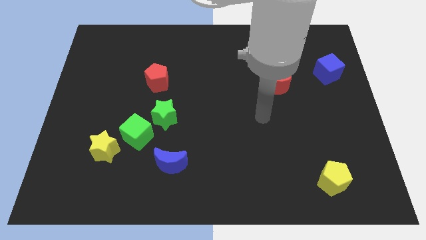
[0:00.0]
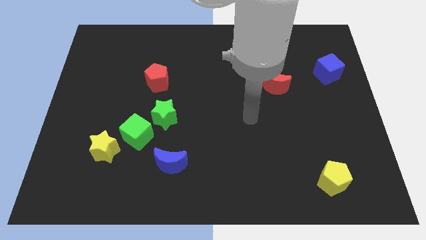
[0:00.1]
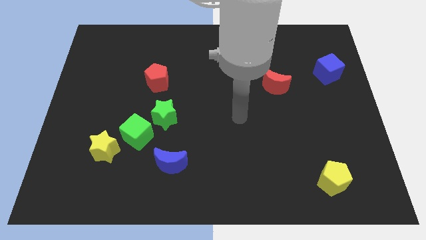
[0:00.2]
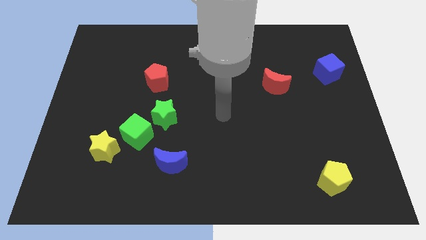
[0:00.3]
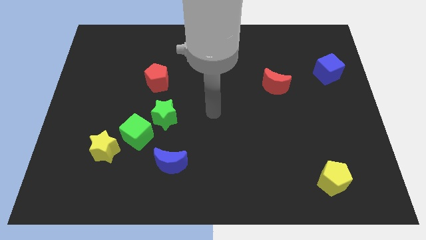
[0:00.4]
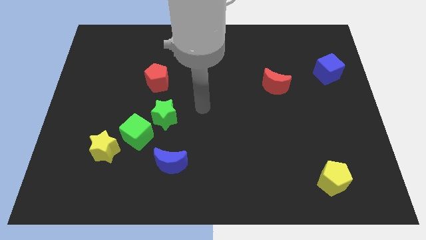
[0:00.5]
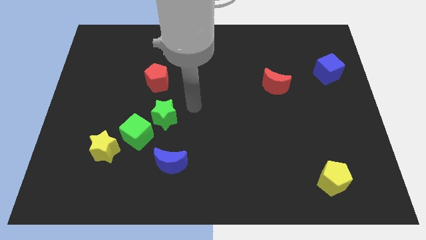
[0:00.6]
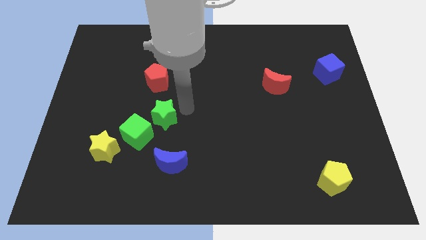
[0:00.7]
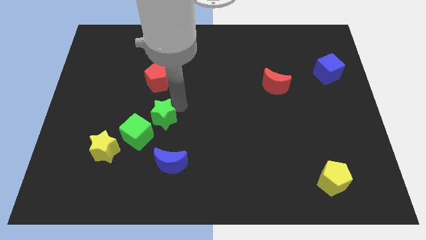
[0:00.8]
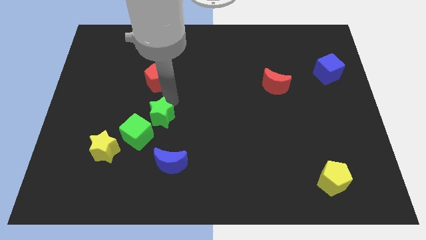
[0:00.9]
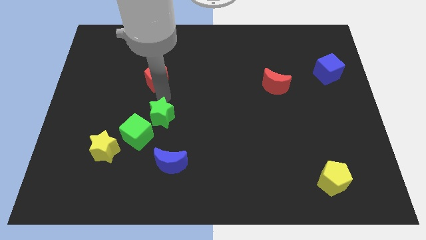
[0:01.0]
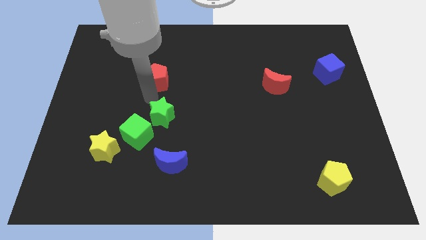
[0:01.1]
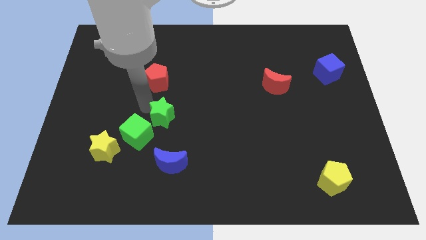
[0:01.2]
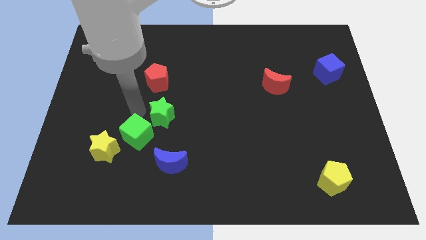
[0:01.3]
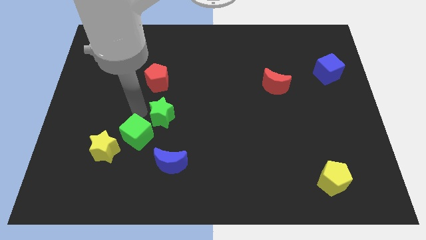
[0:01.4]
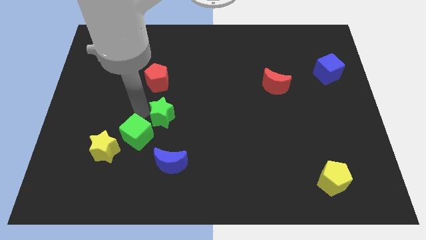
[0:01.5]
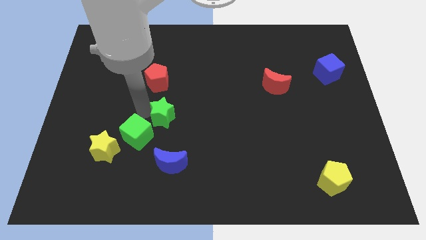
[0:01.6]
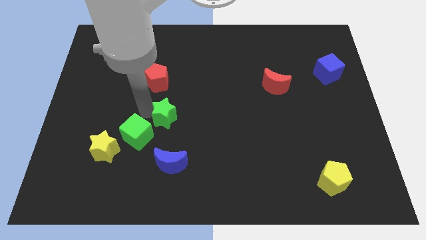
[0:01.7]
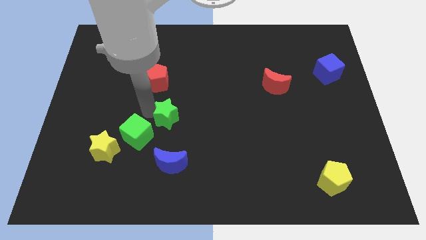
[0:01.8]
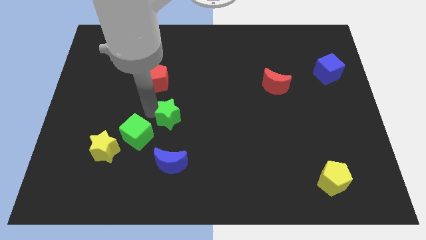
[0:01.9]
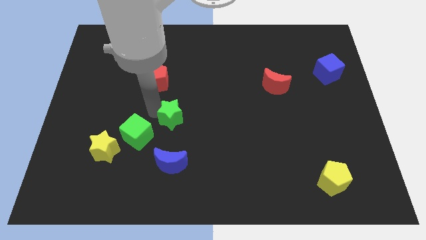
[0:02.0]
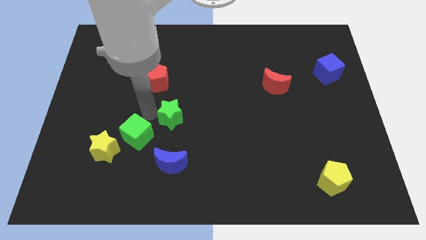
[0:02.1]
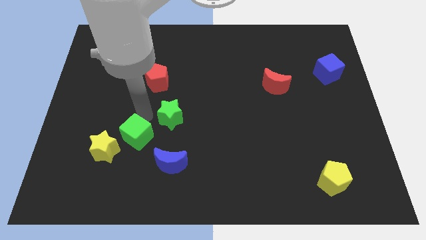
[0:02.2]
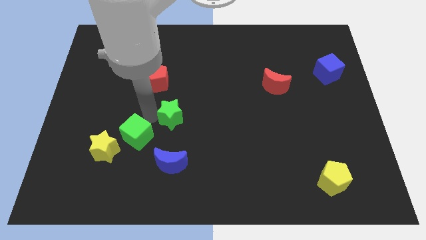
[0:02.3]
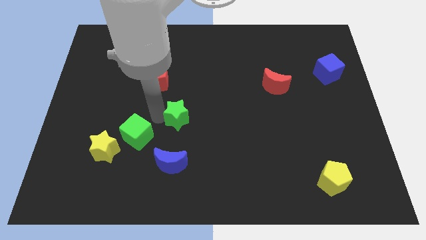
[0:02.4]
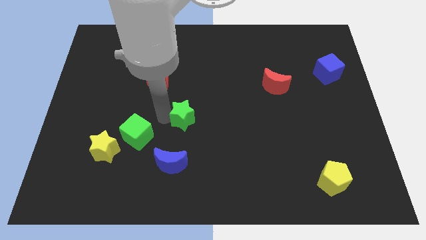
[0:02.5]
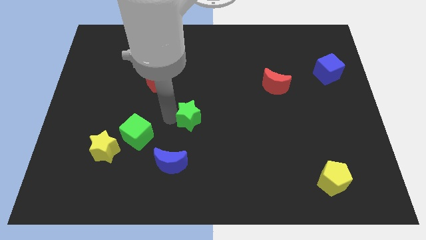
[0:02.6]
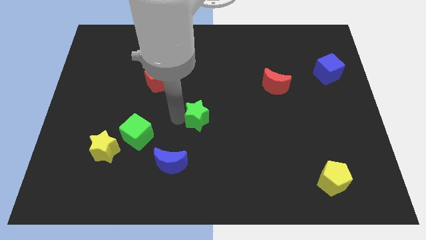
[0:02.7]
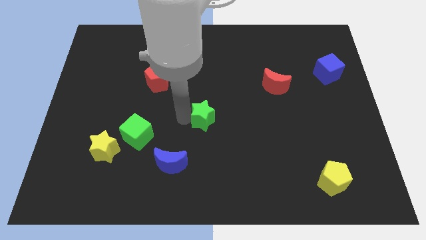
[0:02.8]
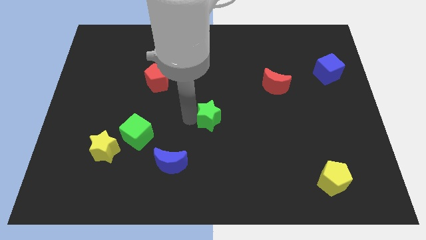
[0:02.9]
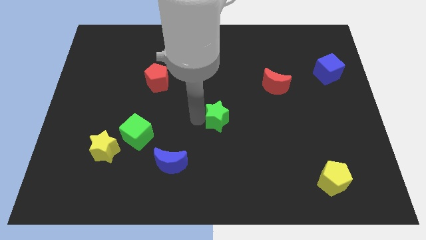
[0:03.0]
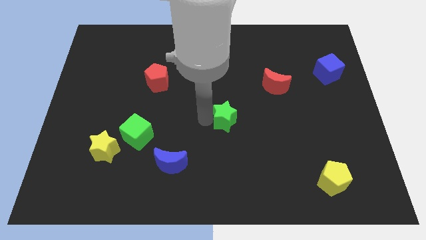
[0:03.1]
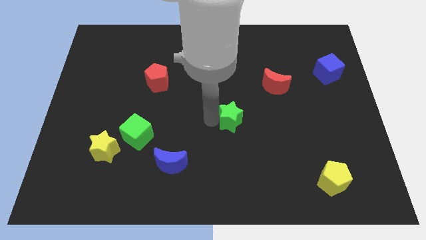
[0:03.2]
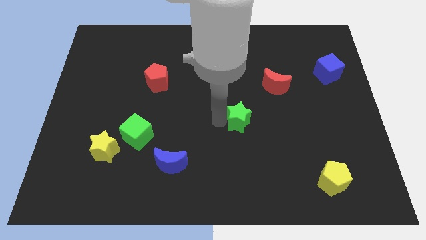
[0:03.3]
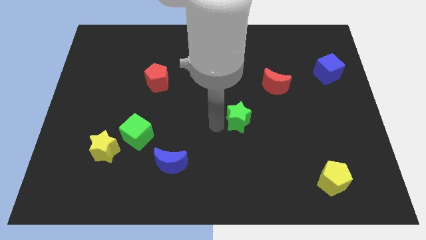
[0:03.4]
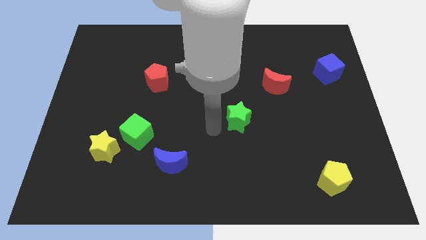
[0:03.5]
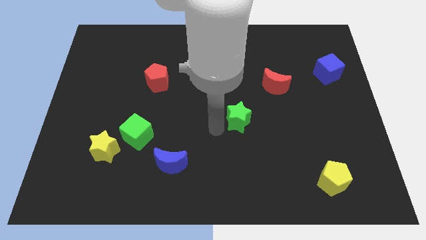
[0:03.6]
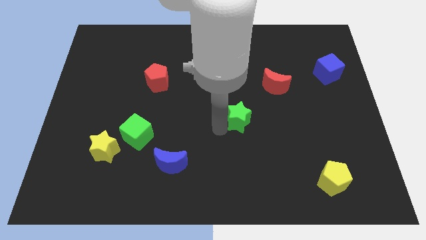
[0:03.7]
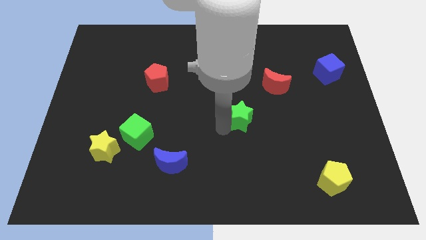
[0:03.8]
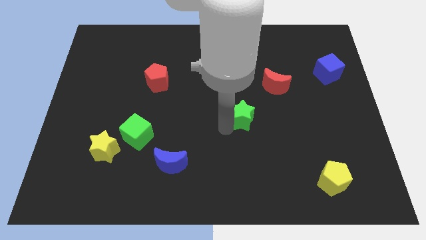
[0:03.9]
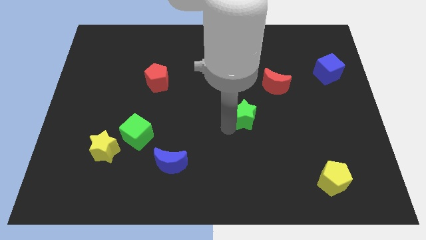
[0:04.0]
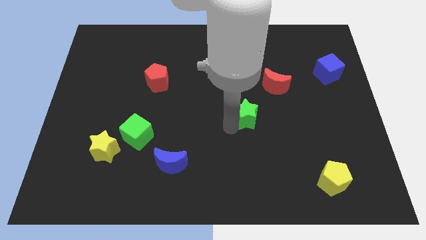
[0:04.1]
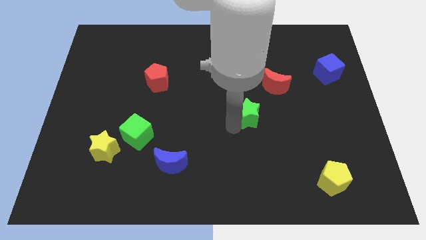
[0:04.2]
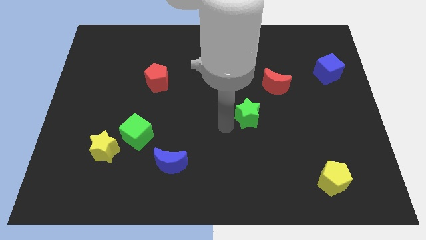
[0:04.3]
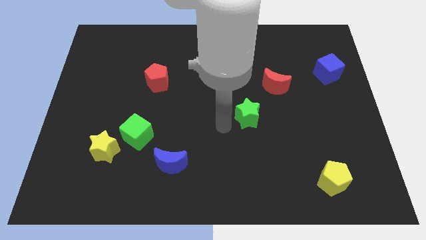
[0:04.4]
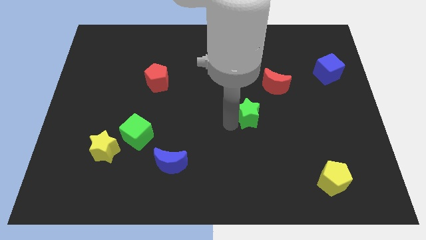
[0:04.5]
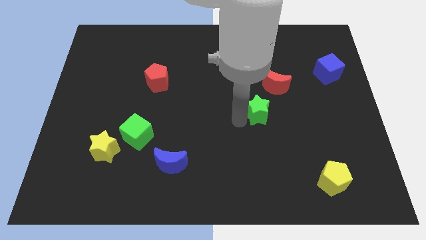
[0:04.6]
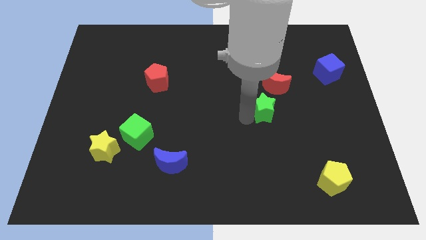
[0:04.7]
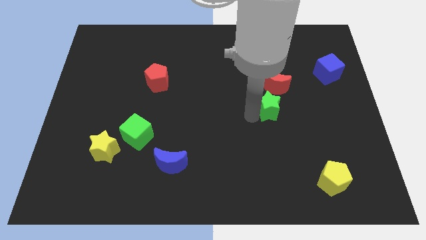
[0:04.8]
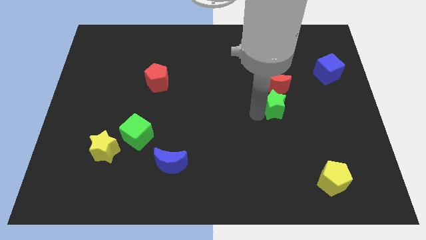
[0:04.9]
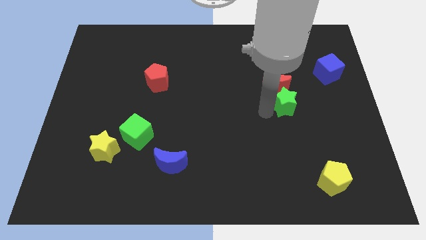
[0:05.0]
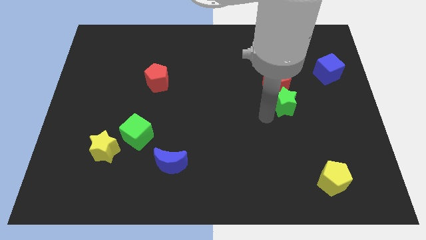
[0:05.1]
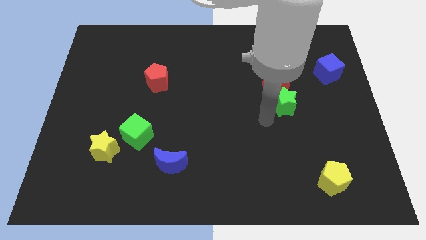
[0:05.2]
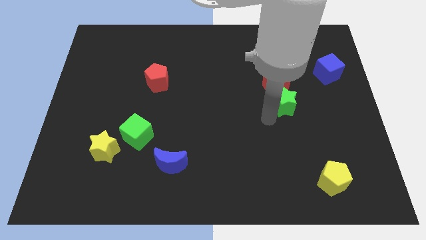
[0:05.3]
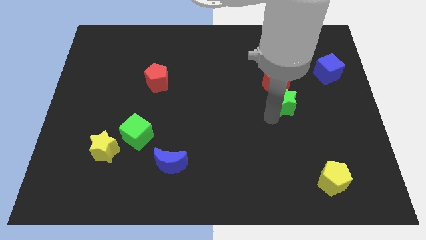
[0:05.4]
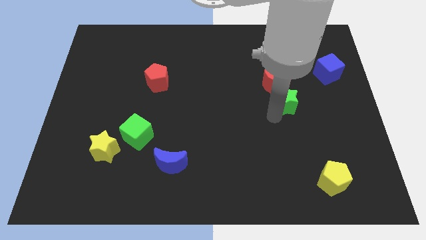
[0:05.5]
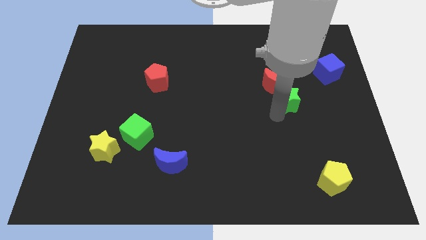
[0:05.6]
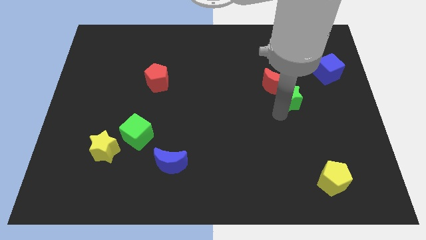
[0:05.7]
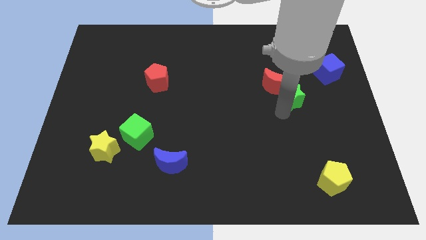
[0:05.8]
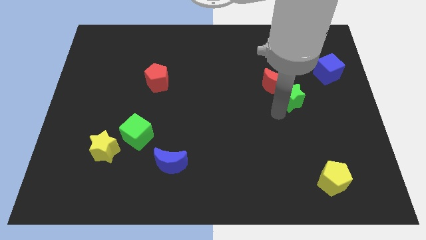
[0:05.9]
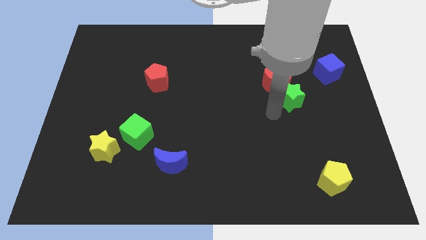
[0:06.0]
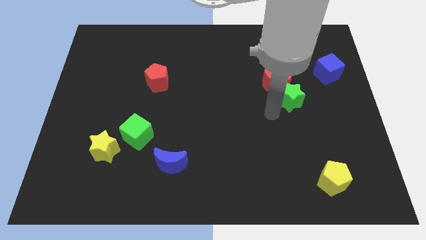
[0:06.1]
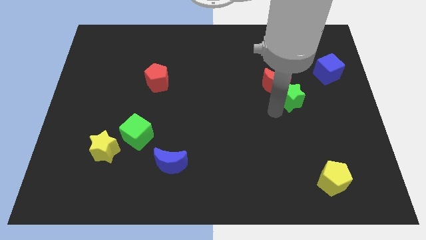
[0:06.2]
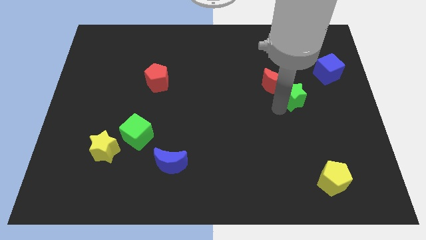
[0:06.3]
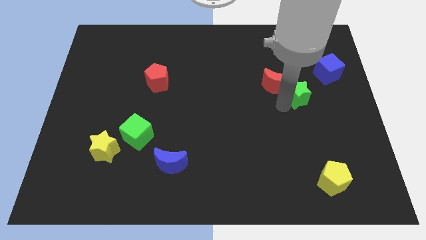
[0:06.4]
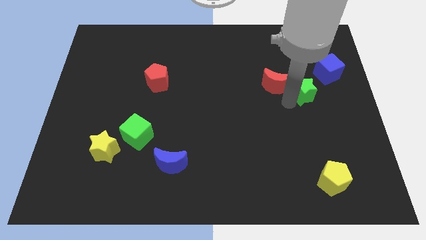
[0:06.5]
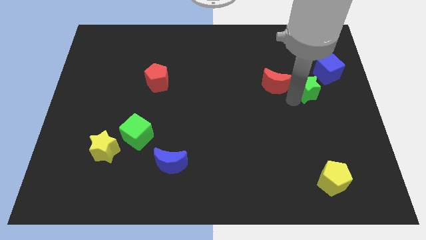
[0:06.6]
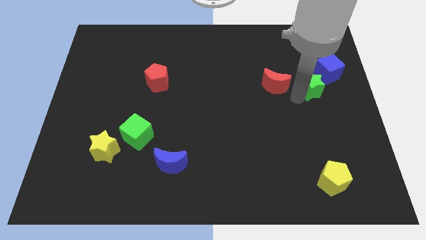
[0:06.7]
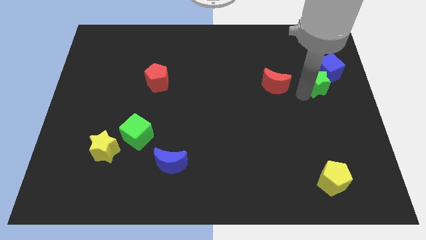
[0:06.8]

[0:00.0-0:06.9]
move the green star towards the blue cube

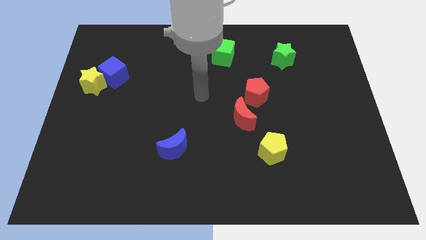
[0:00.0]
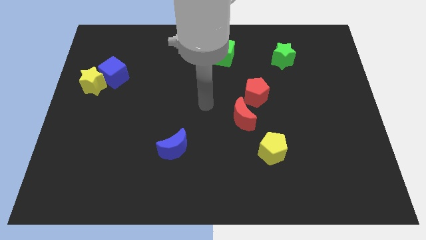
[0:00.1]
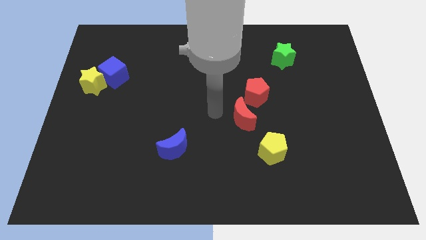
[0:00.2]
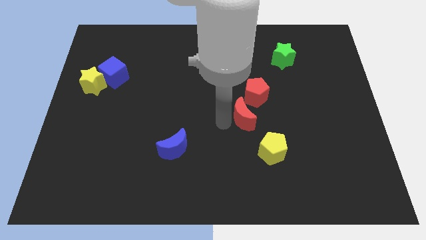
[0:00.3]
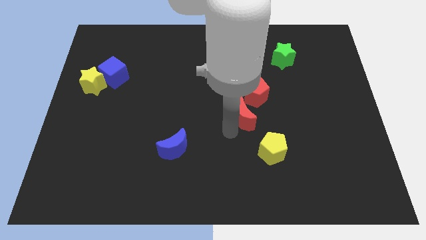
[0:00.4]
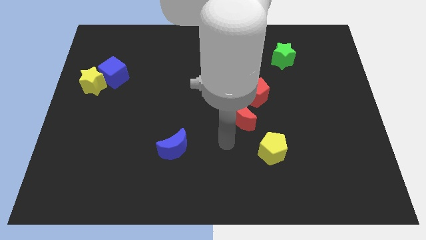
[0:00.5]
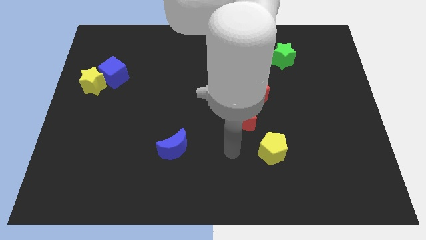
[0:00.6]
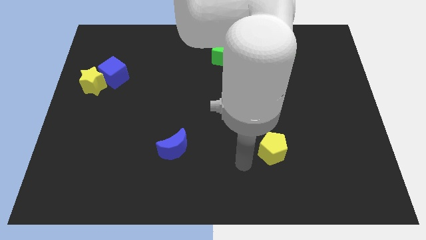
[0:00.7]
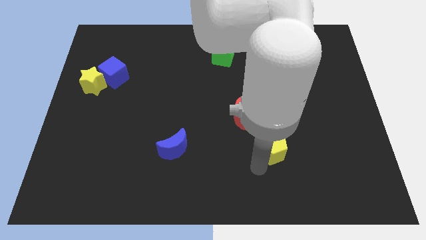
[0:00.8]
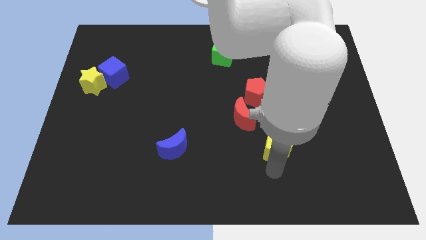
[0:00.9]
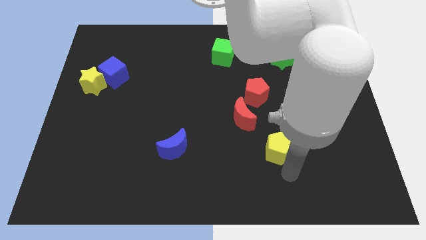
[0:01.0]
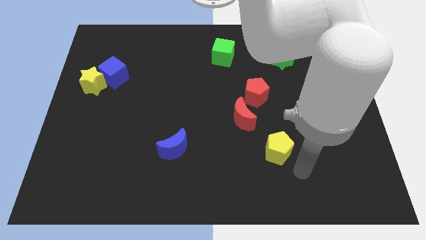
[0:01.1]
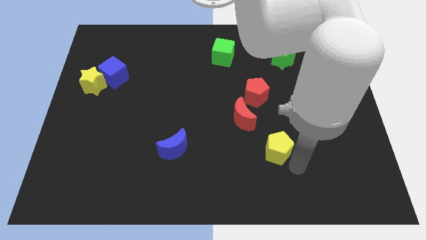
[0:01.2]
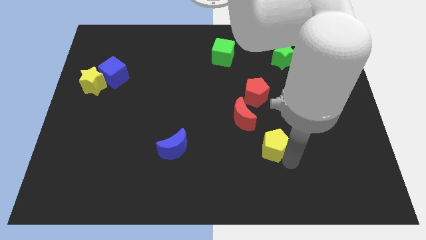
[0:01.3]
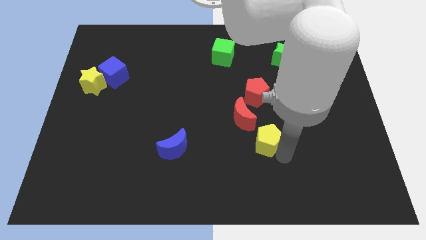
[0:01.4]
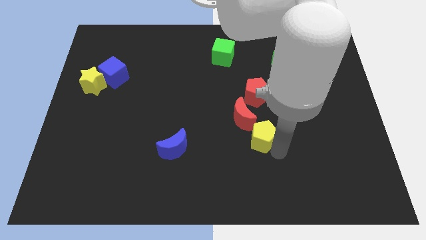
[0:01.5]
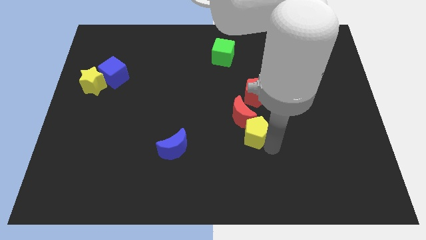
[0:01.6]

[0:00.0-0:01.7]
slide the yellow pentagon close to the red moon
